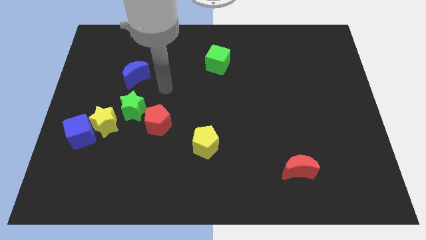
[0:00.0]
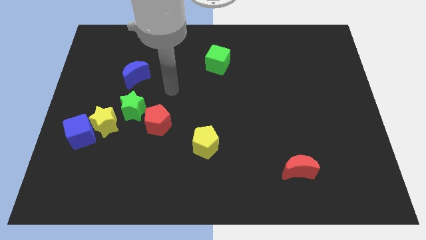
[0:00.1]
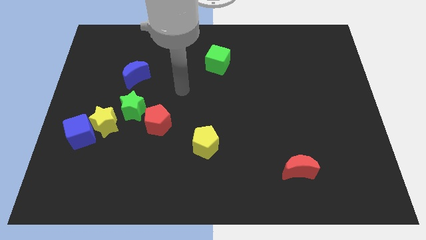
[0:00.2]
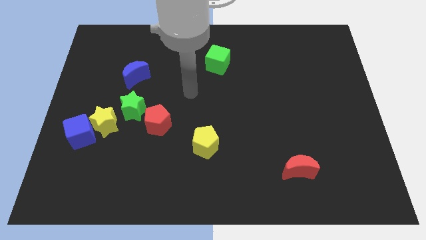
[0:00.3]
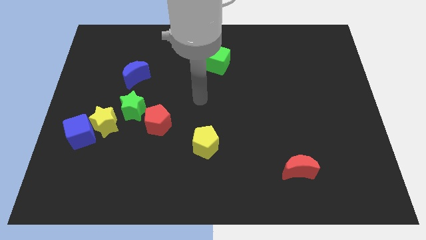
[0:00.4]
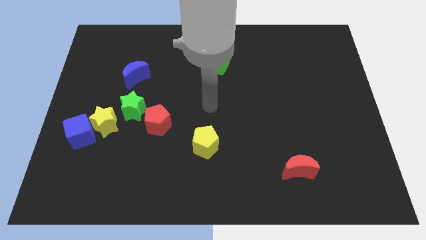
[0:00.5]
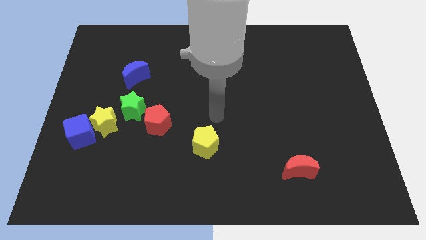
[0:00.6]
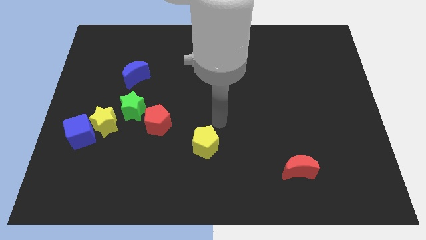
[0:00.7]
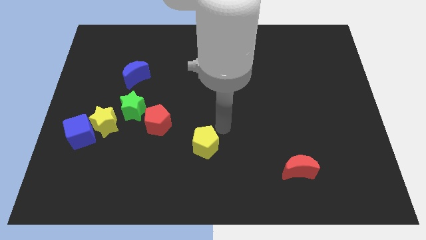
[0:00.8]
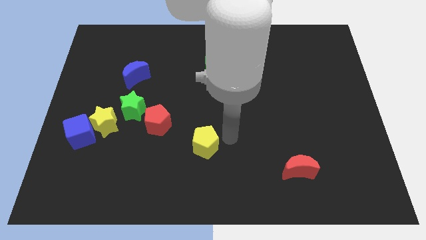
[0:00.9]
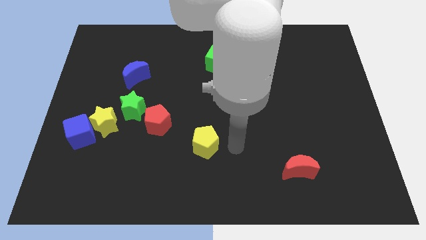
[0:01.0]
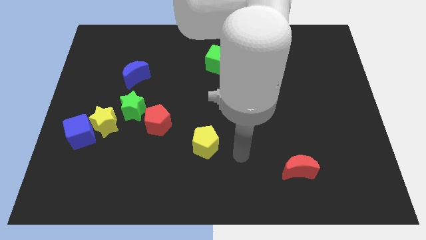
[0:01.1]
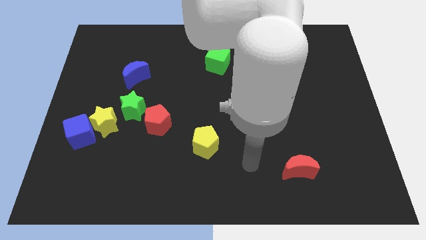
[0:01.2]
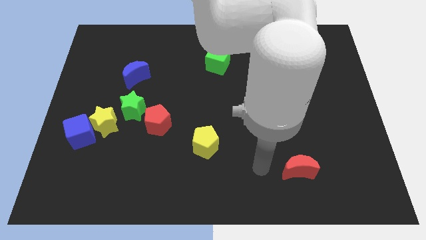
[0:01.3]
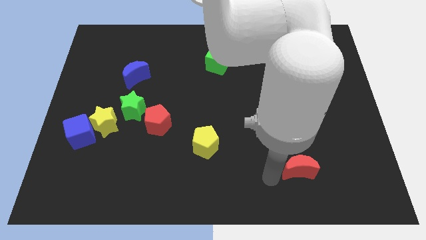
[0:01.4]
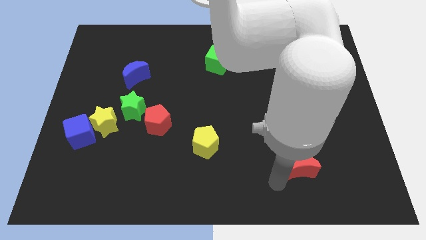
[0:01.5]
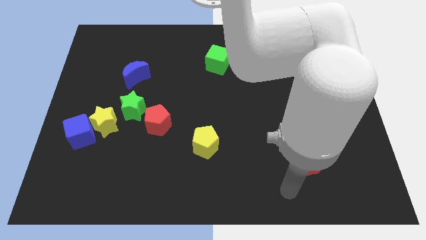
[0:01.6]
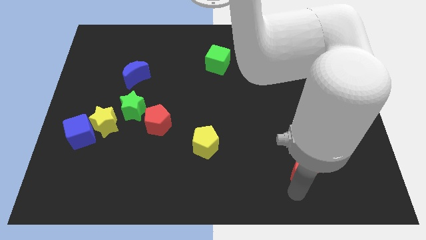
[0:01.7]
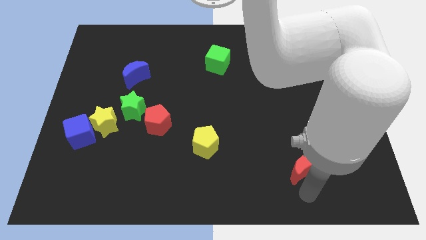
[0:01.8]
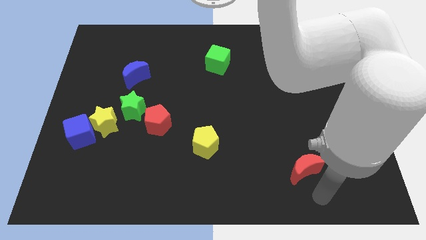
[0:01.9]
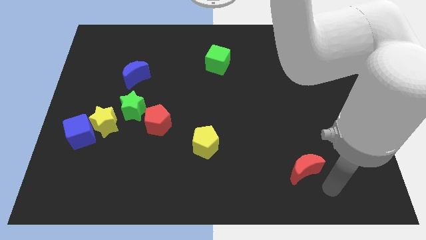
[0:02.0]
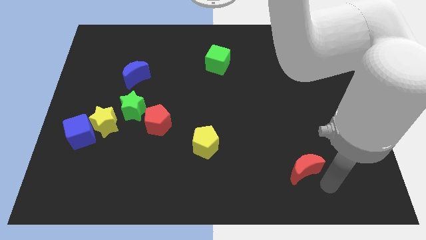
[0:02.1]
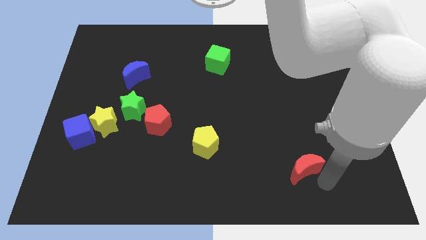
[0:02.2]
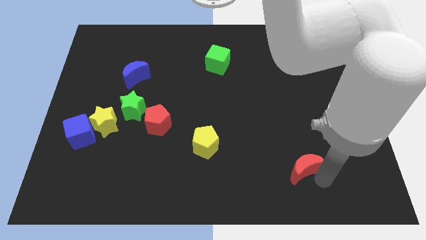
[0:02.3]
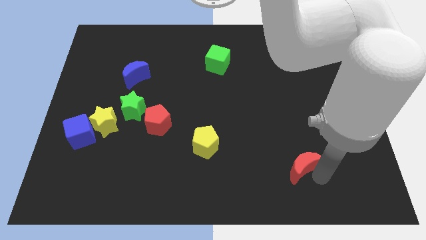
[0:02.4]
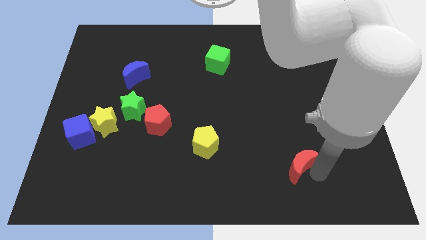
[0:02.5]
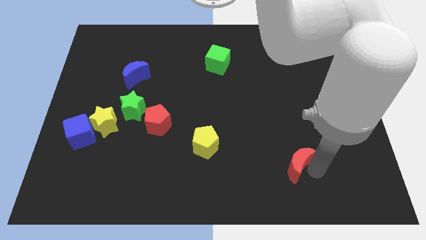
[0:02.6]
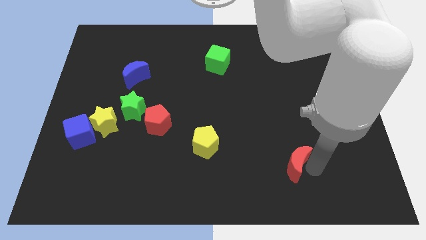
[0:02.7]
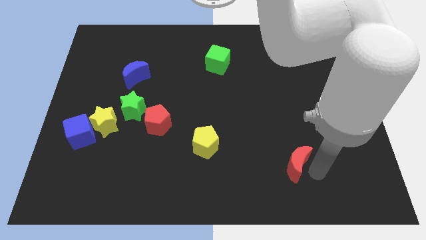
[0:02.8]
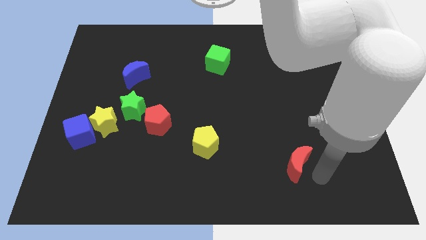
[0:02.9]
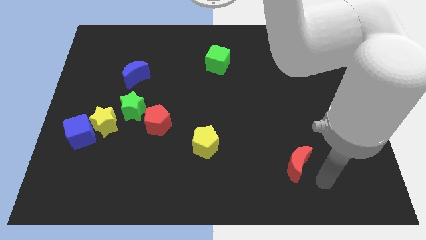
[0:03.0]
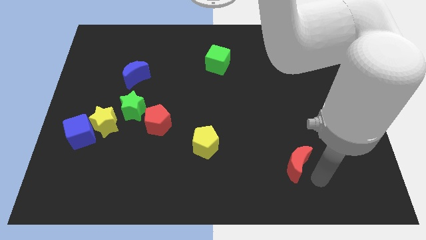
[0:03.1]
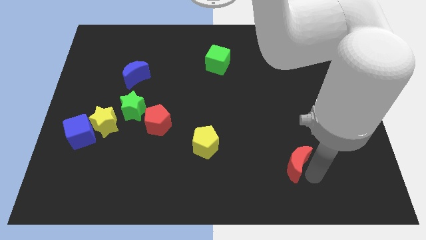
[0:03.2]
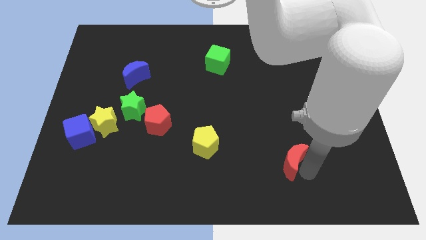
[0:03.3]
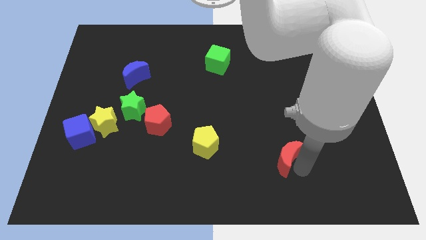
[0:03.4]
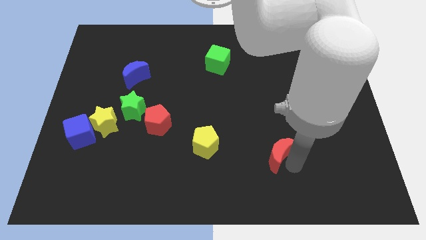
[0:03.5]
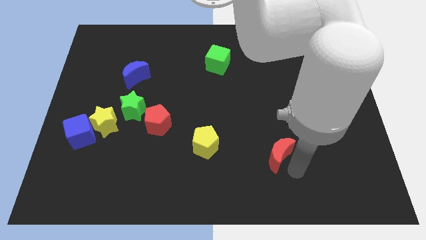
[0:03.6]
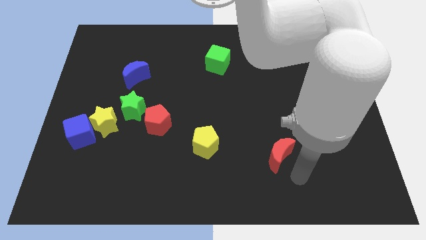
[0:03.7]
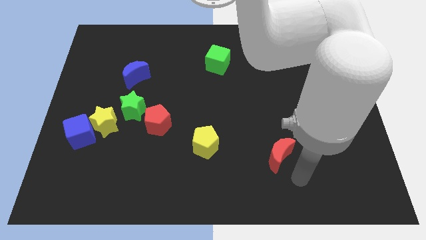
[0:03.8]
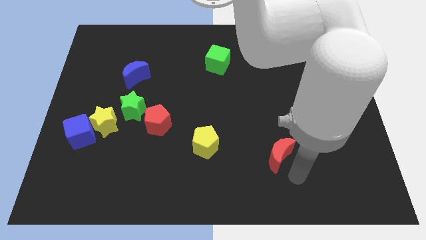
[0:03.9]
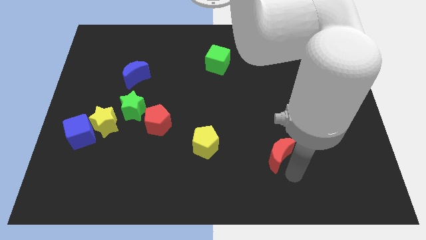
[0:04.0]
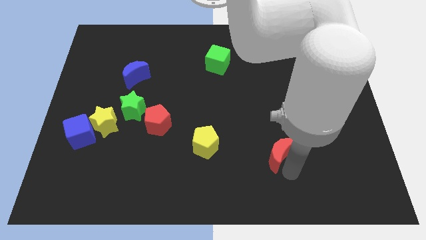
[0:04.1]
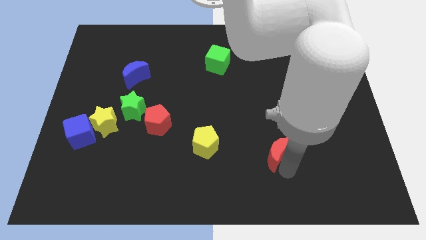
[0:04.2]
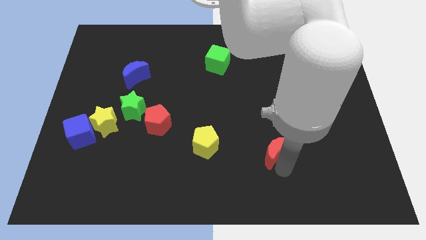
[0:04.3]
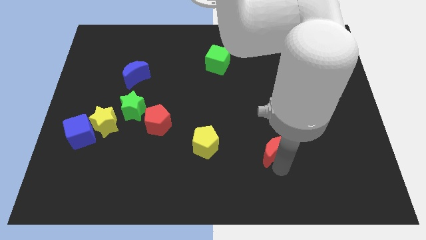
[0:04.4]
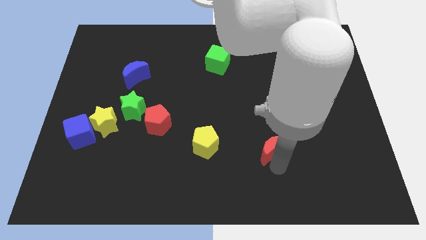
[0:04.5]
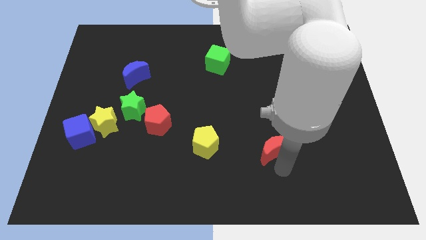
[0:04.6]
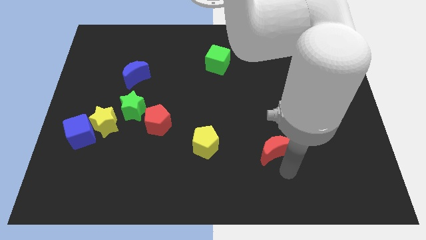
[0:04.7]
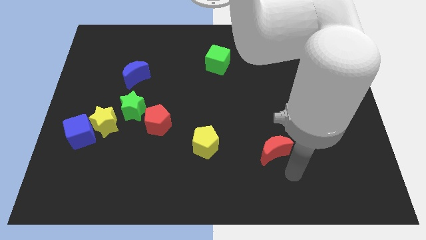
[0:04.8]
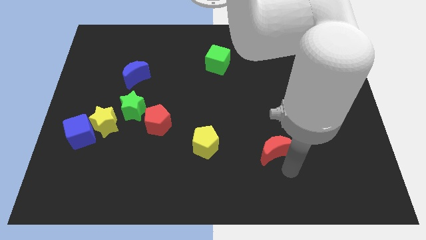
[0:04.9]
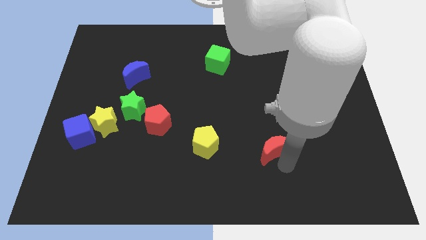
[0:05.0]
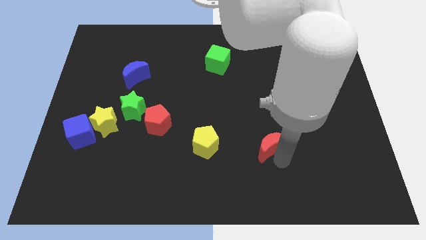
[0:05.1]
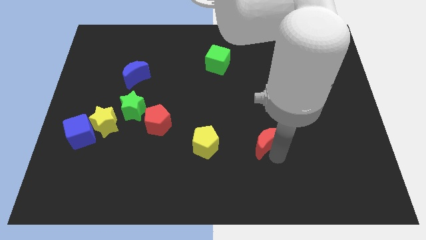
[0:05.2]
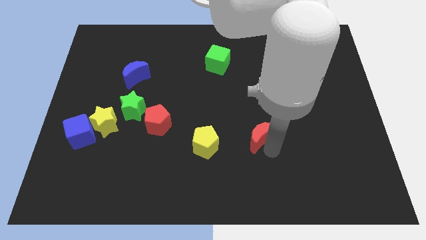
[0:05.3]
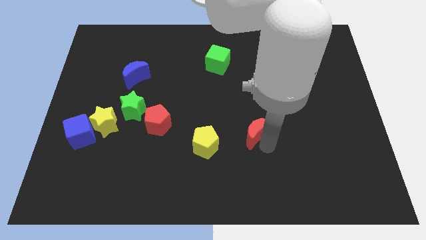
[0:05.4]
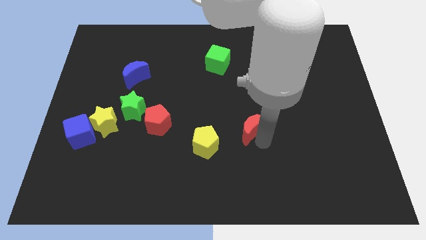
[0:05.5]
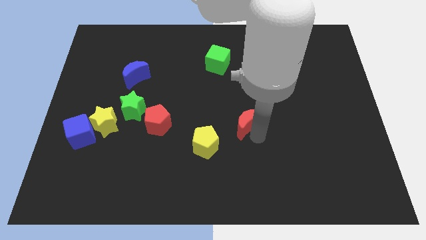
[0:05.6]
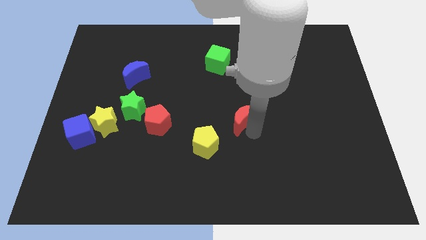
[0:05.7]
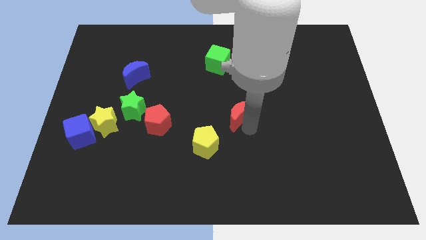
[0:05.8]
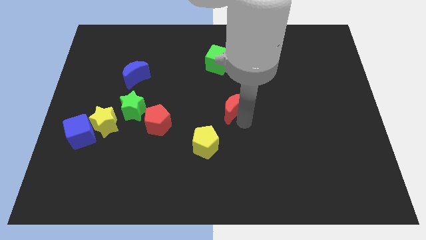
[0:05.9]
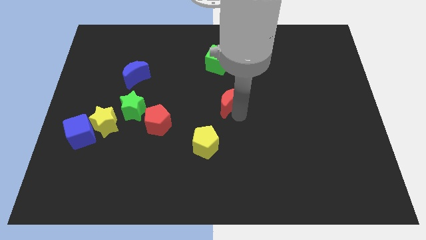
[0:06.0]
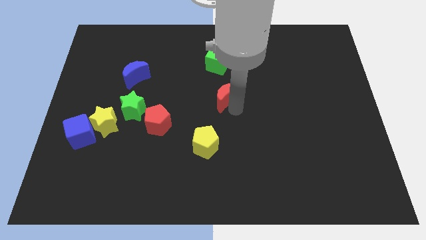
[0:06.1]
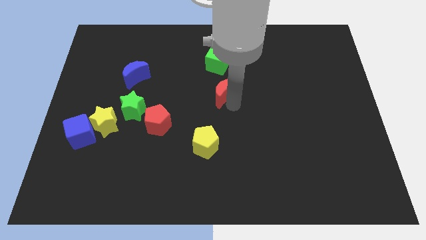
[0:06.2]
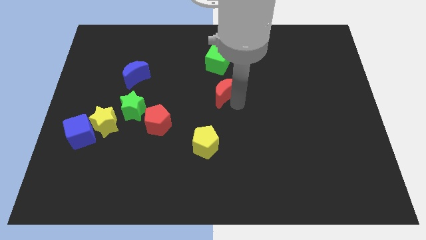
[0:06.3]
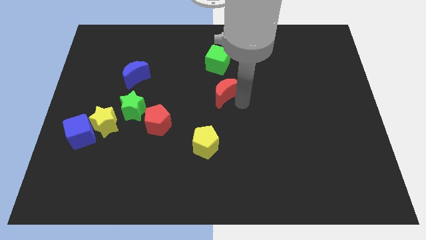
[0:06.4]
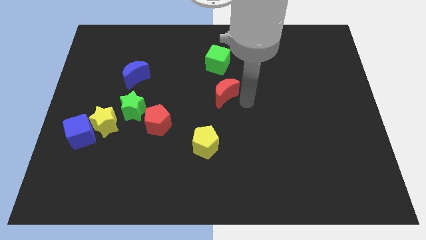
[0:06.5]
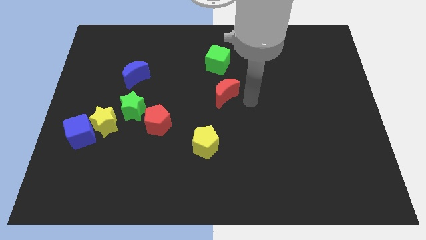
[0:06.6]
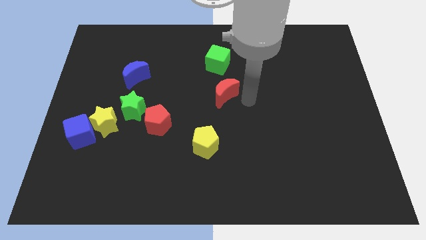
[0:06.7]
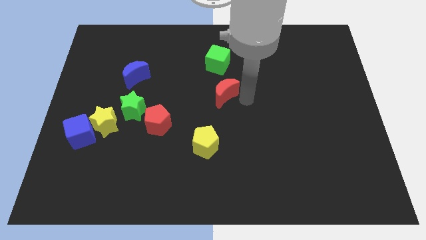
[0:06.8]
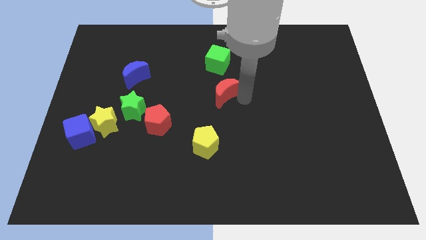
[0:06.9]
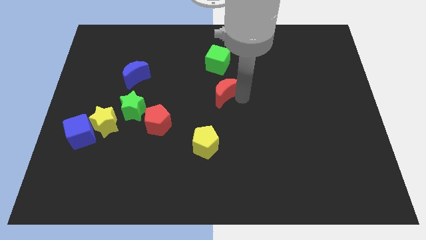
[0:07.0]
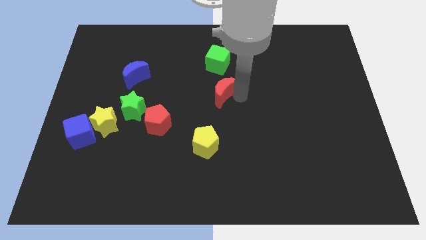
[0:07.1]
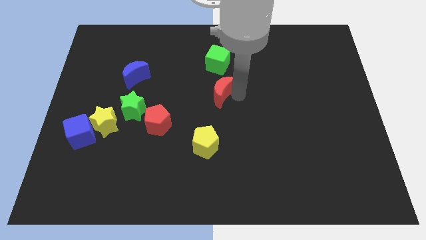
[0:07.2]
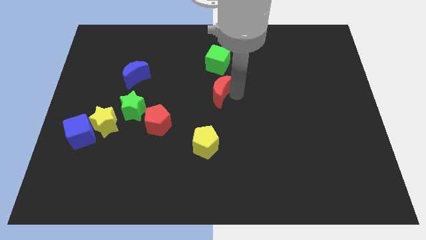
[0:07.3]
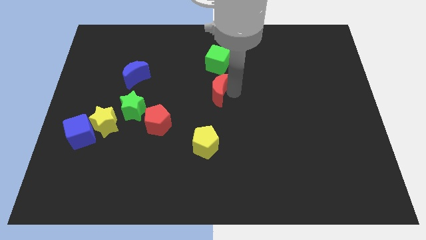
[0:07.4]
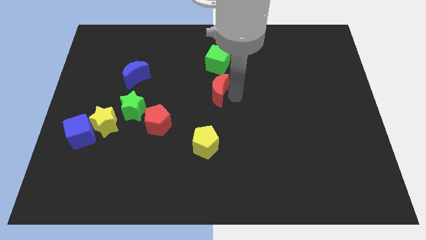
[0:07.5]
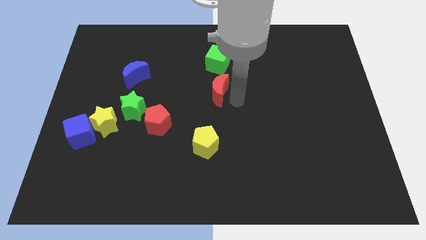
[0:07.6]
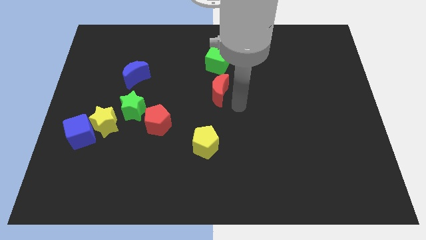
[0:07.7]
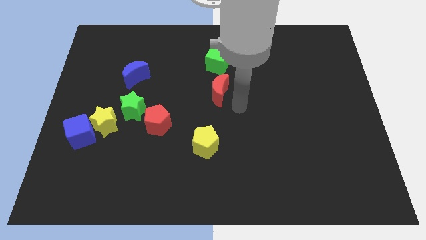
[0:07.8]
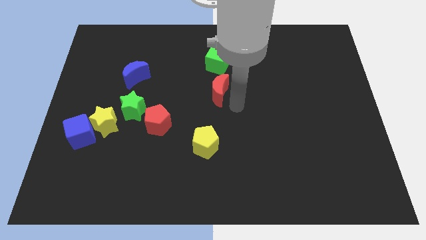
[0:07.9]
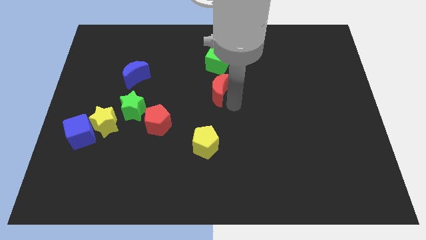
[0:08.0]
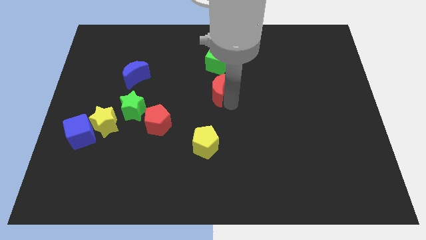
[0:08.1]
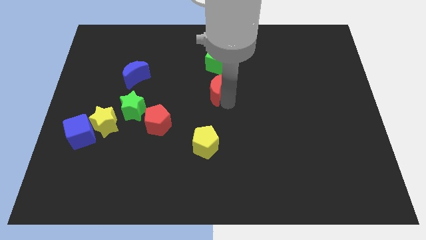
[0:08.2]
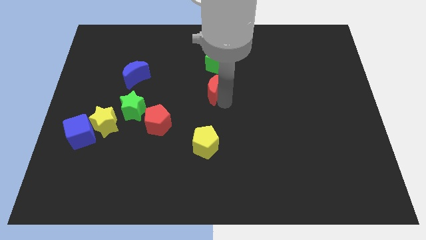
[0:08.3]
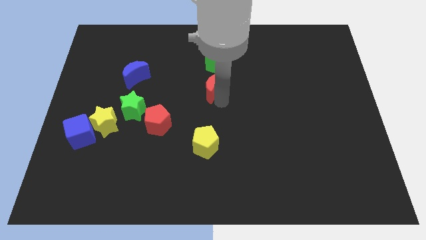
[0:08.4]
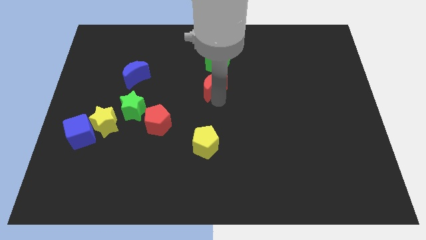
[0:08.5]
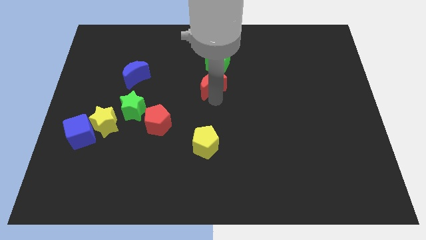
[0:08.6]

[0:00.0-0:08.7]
slide the red moon diagonally down and to the left of the green cube
